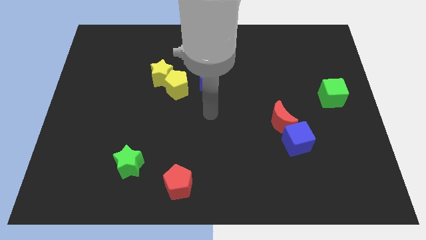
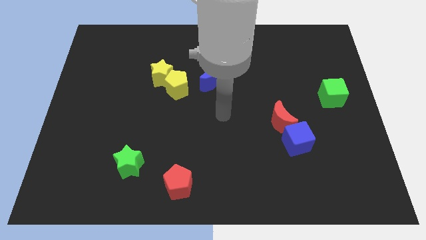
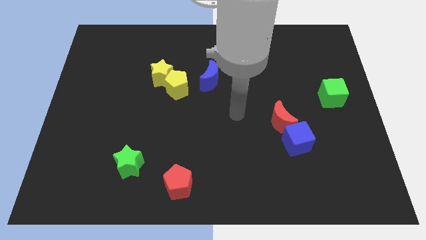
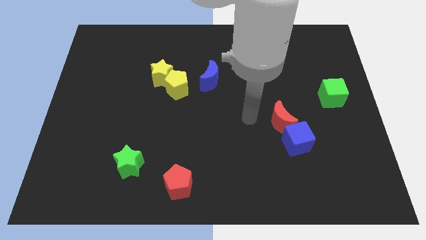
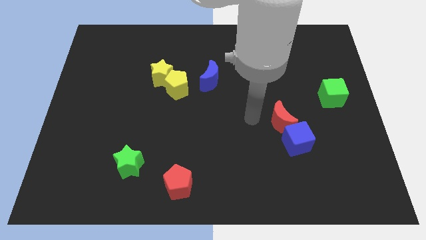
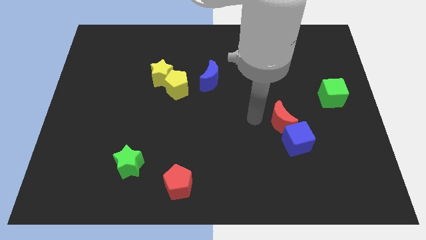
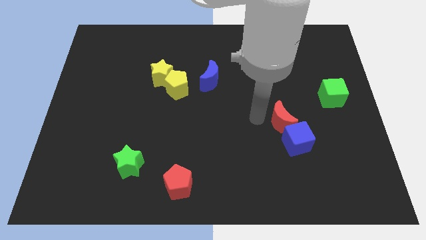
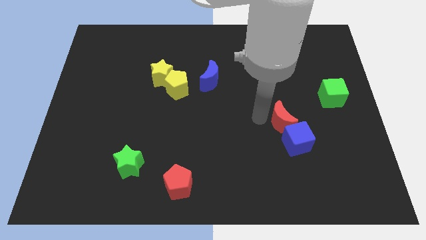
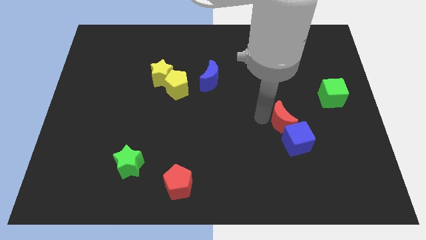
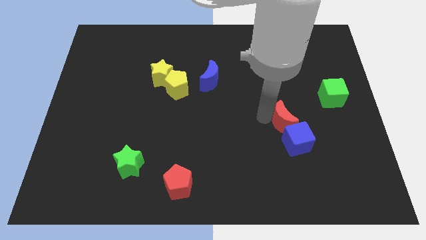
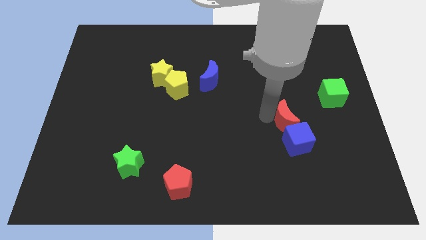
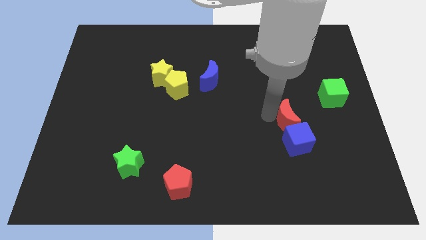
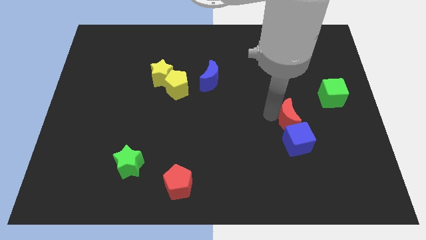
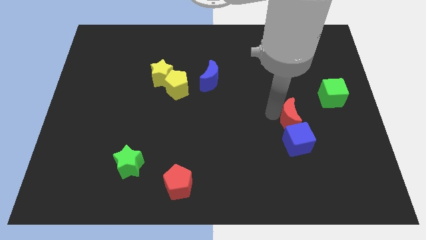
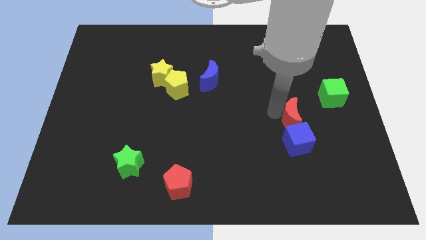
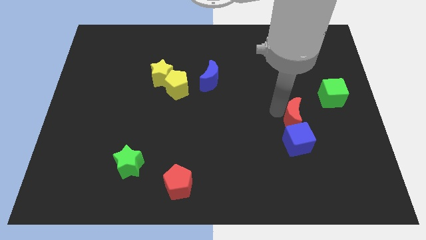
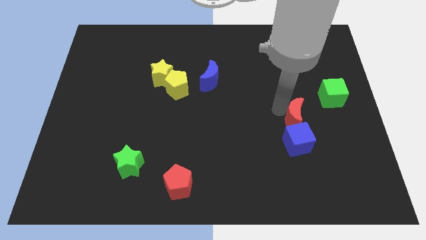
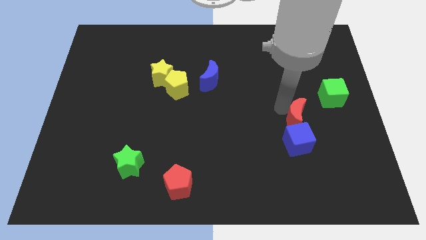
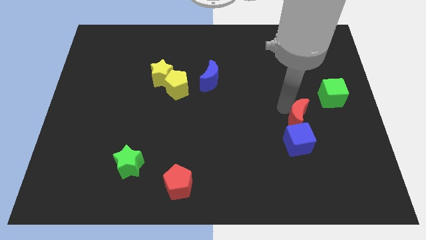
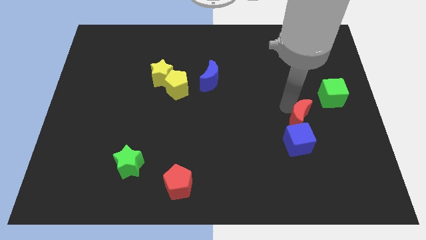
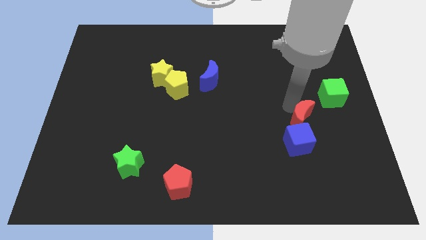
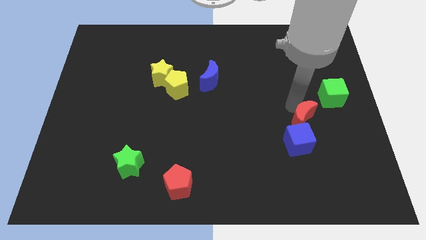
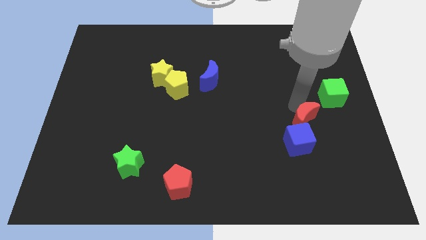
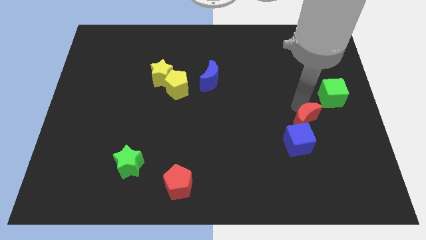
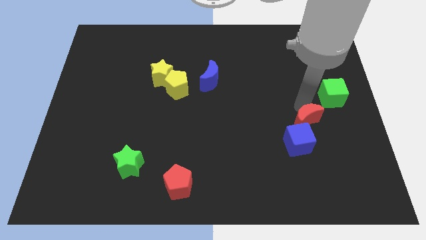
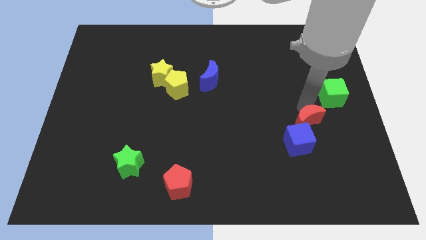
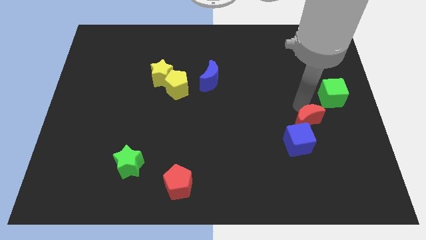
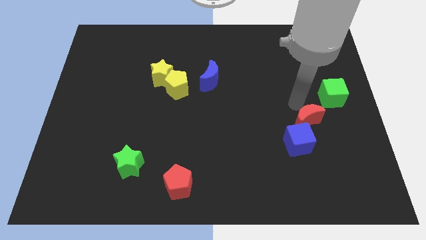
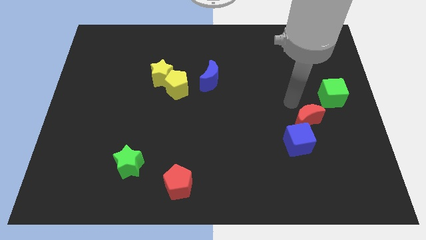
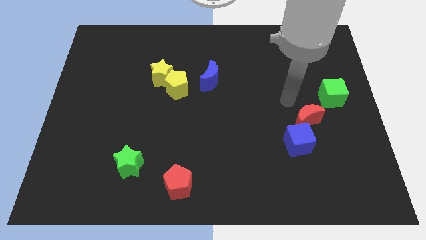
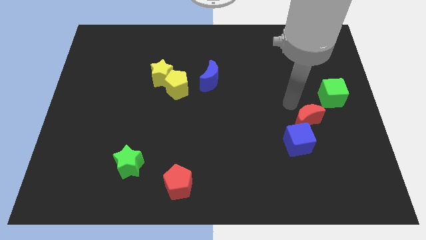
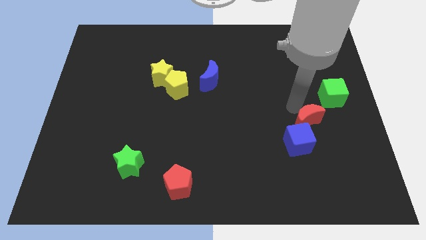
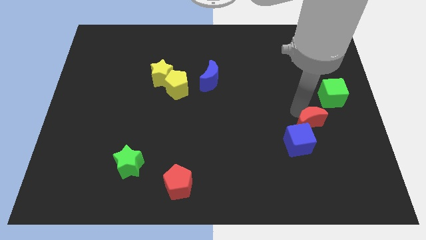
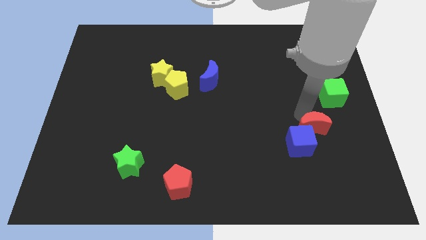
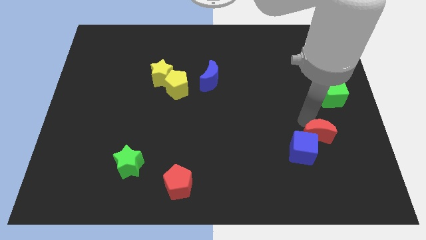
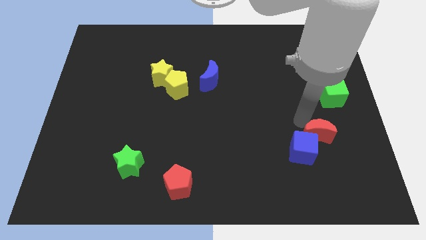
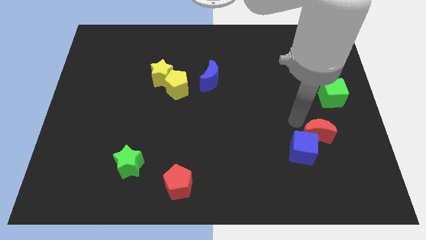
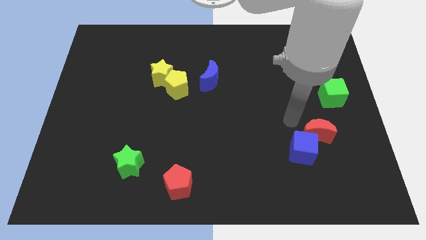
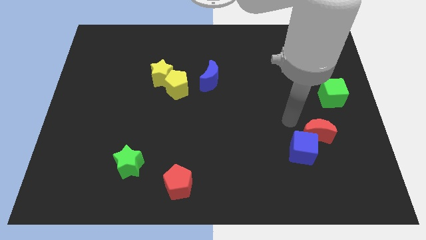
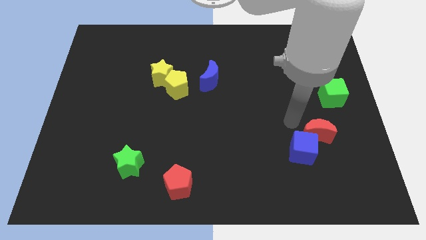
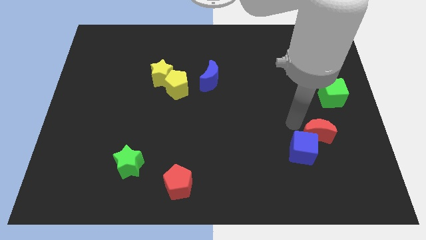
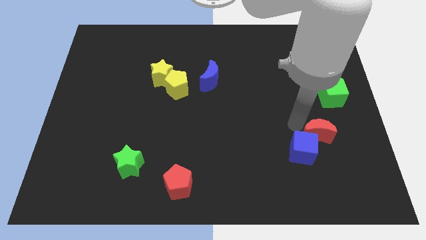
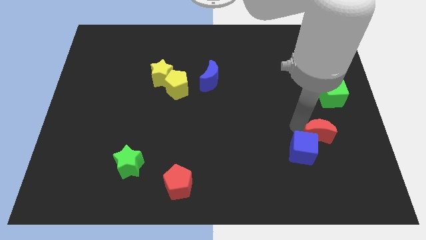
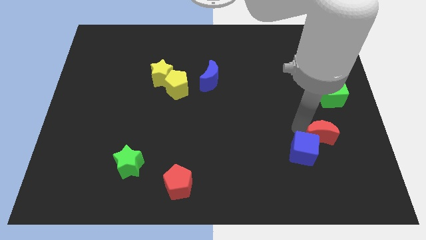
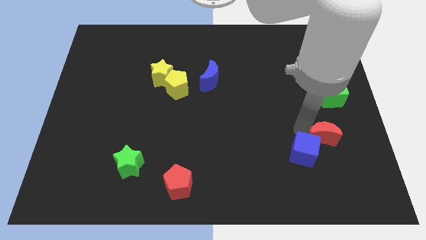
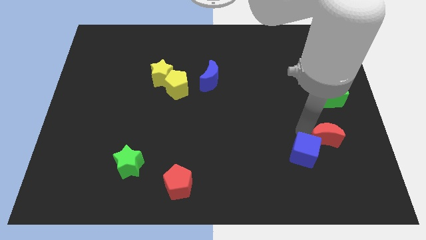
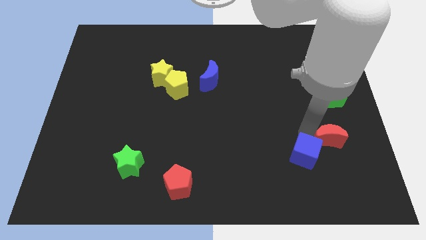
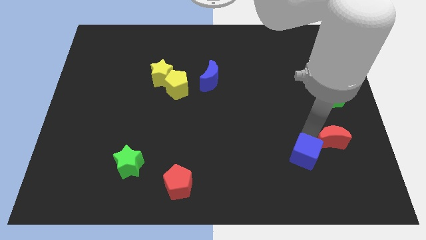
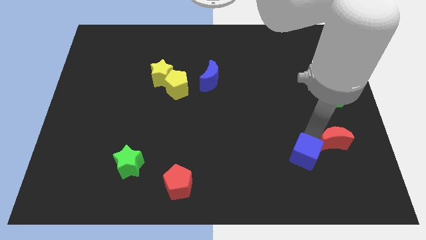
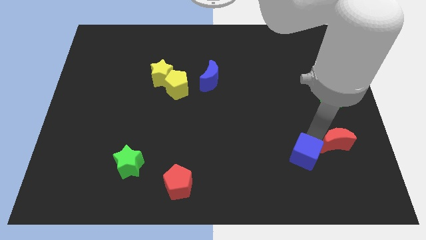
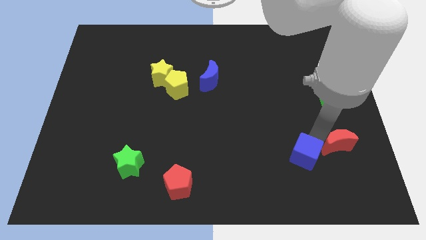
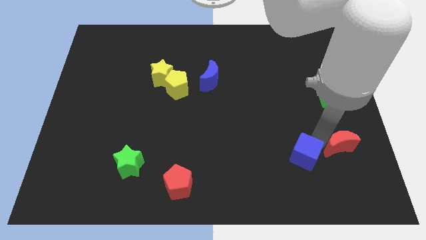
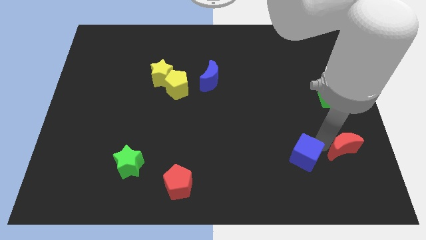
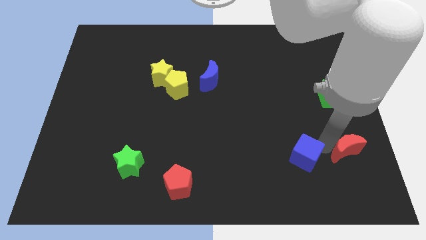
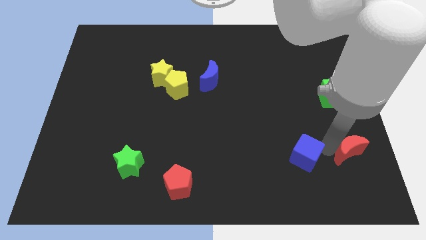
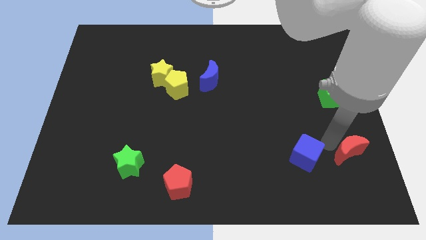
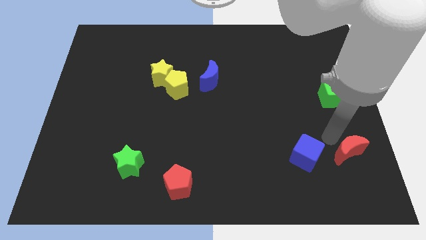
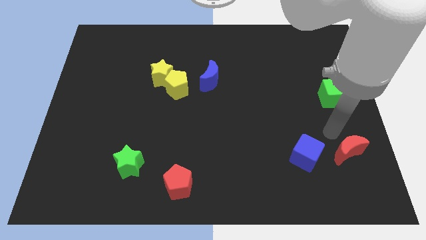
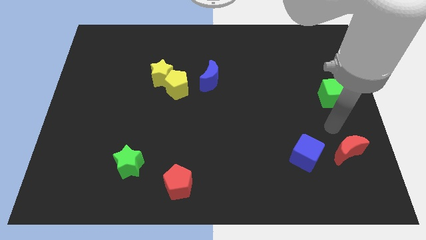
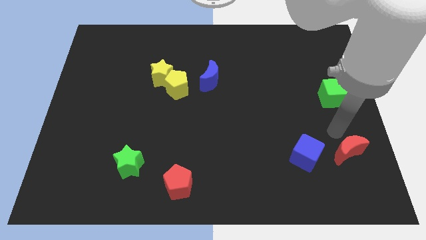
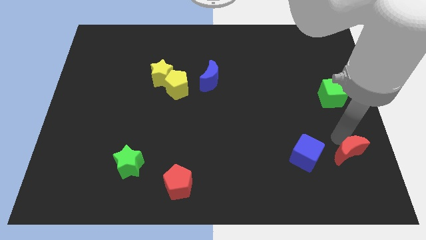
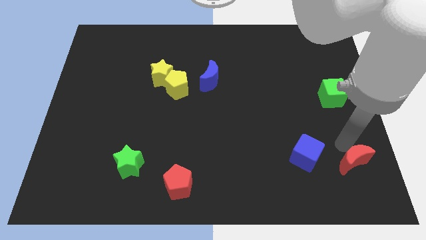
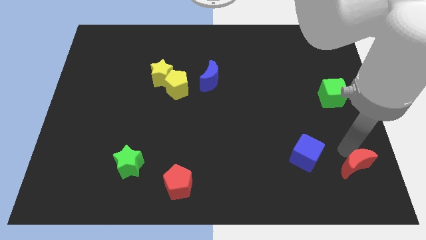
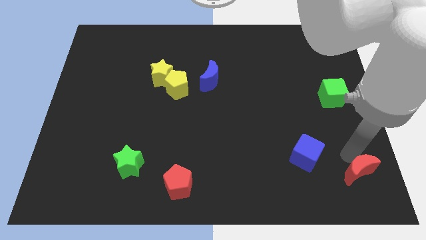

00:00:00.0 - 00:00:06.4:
move the red moon to the bottom right of the board
